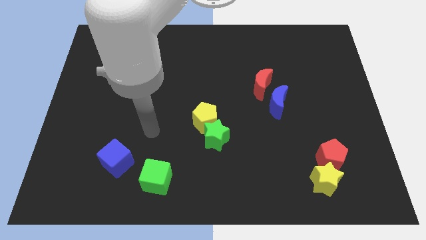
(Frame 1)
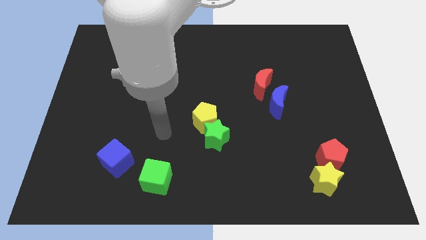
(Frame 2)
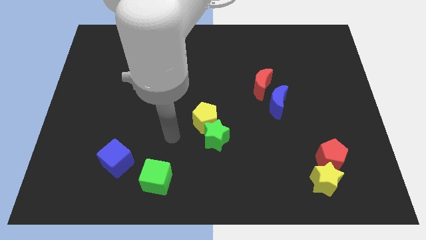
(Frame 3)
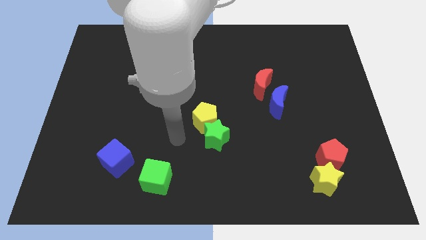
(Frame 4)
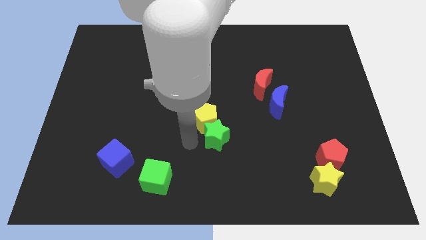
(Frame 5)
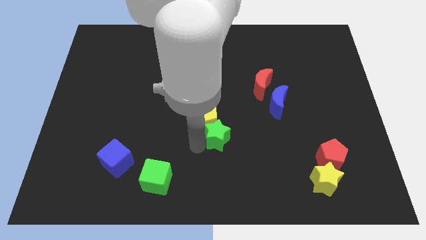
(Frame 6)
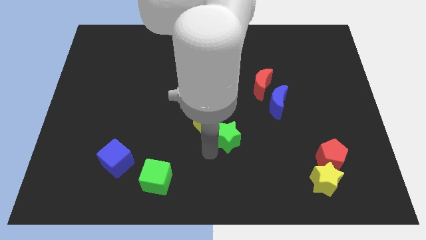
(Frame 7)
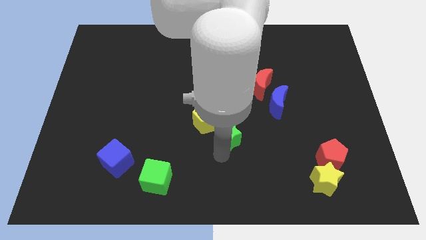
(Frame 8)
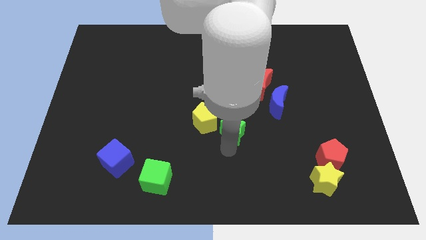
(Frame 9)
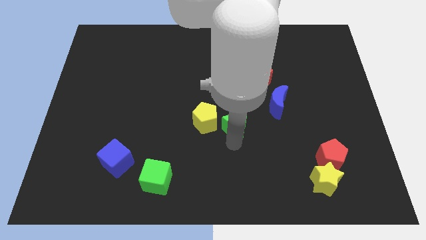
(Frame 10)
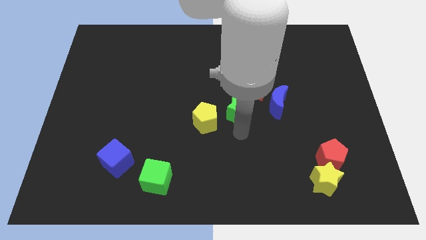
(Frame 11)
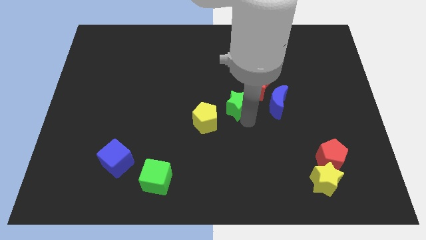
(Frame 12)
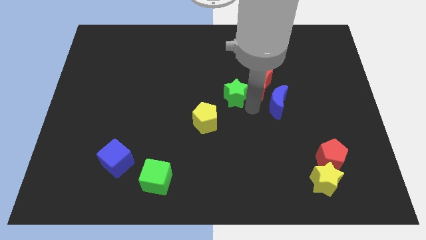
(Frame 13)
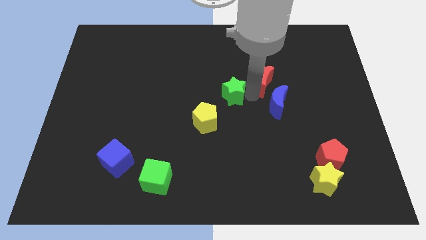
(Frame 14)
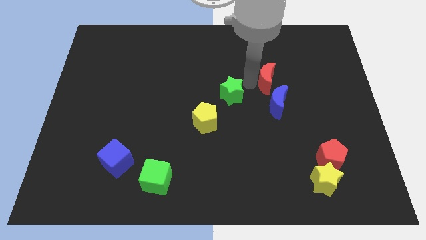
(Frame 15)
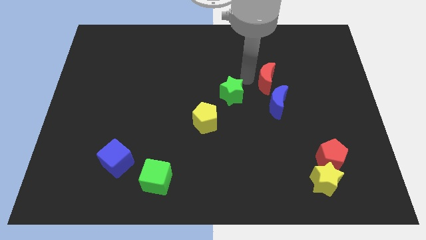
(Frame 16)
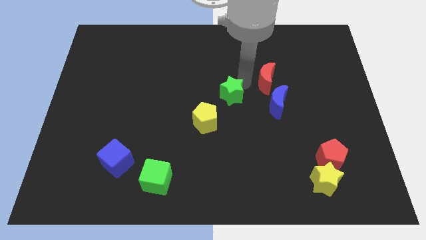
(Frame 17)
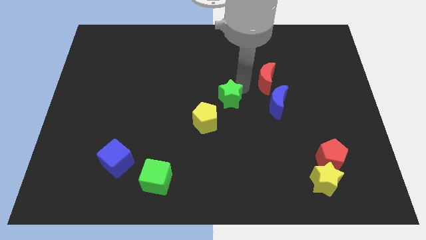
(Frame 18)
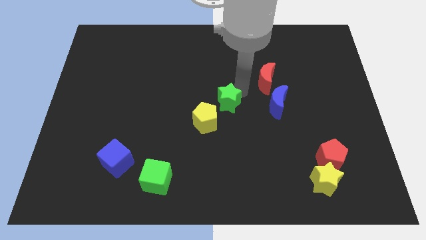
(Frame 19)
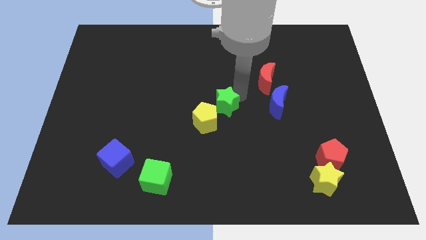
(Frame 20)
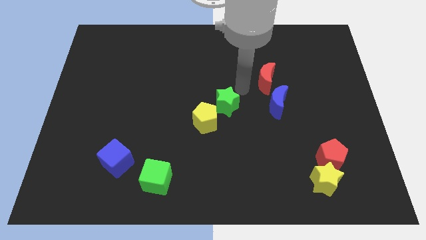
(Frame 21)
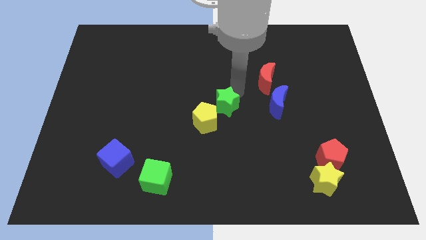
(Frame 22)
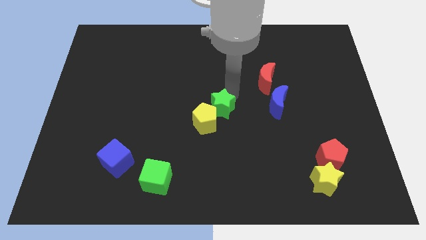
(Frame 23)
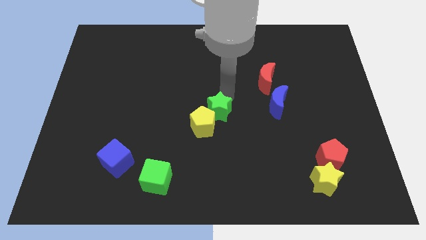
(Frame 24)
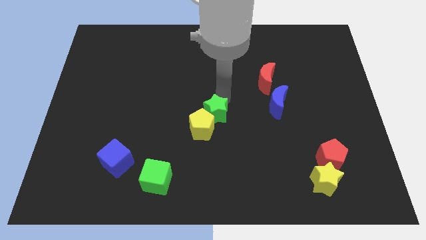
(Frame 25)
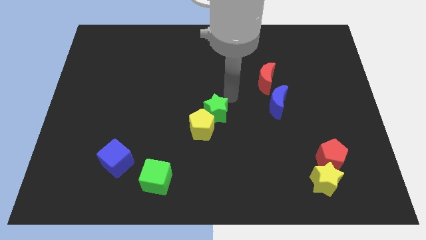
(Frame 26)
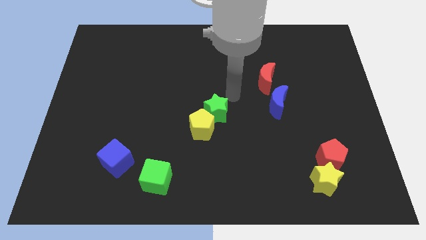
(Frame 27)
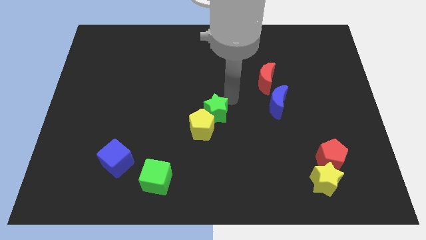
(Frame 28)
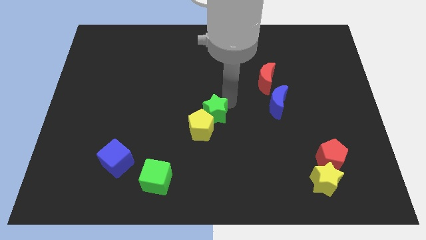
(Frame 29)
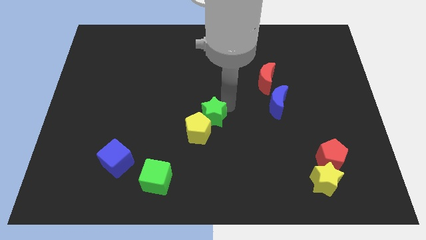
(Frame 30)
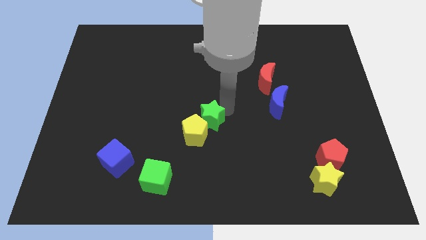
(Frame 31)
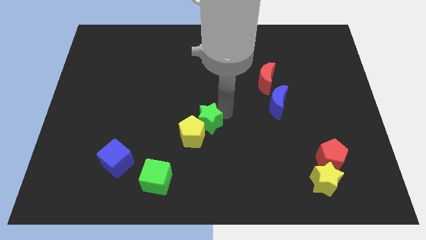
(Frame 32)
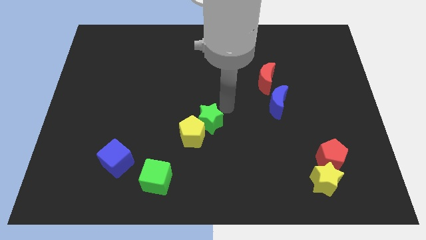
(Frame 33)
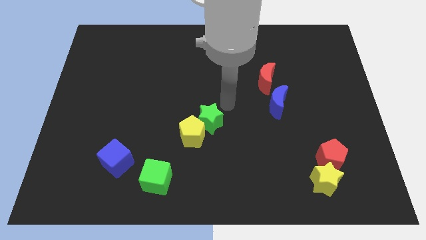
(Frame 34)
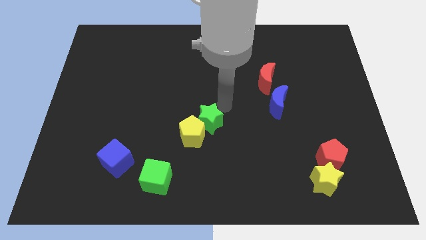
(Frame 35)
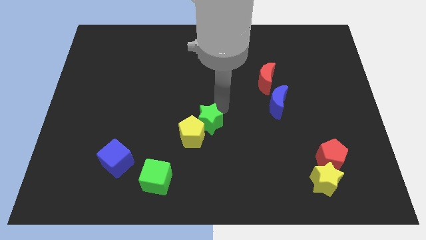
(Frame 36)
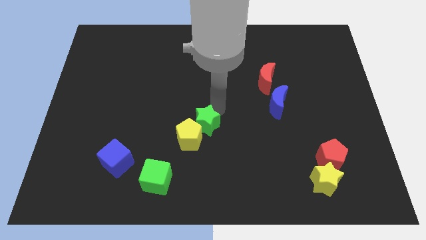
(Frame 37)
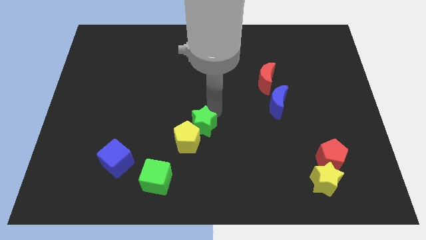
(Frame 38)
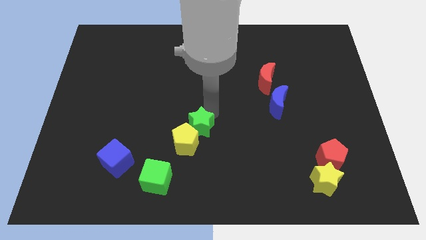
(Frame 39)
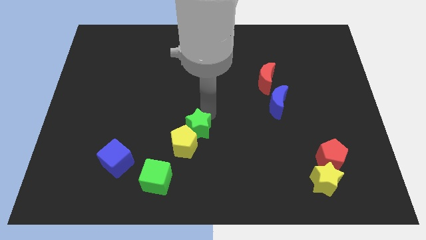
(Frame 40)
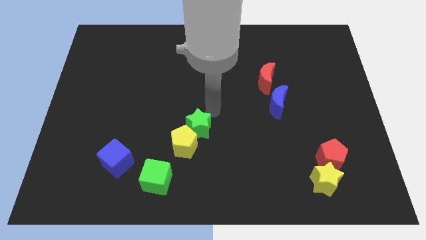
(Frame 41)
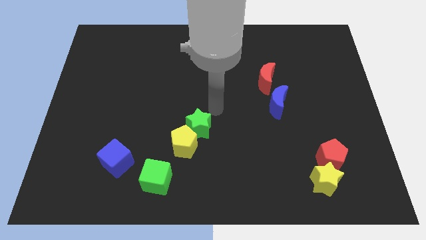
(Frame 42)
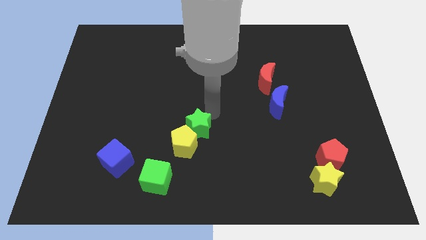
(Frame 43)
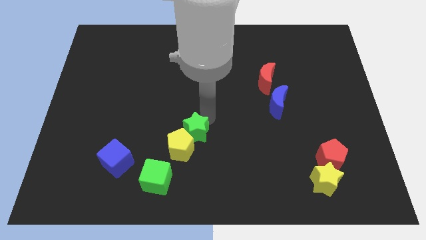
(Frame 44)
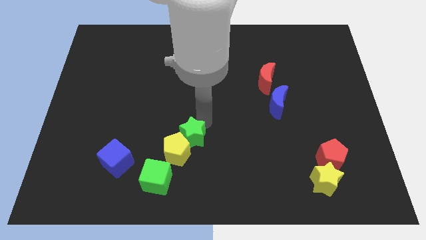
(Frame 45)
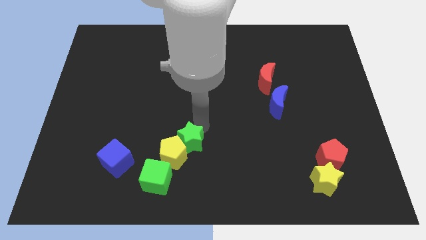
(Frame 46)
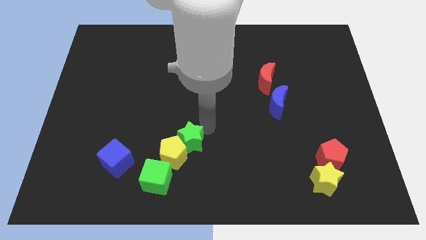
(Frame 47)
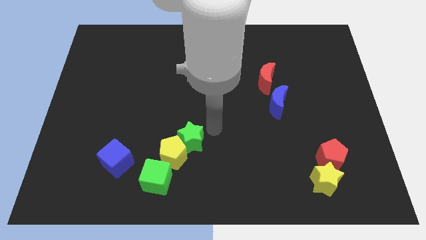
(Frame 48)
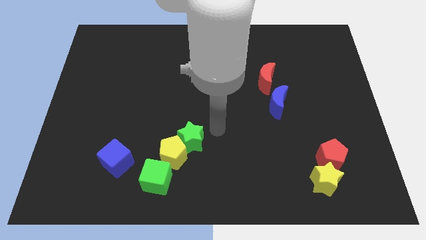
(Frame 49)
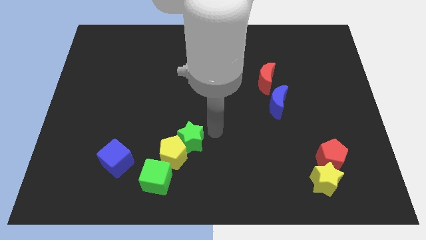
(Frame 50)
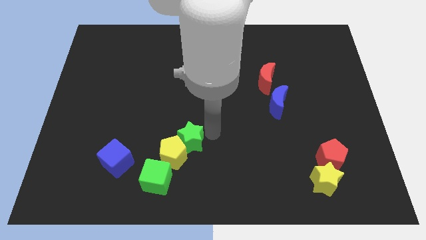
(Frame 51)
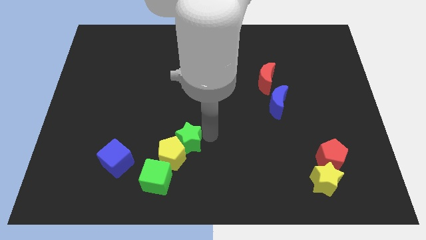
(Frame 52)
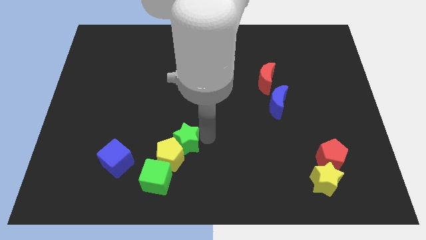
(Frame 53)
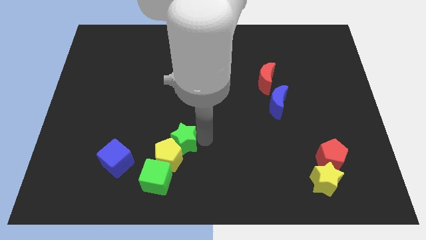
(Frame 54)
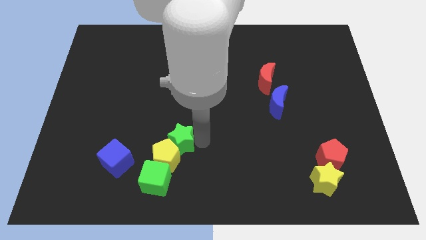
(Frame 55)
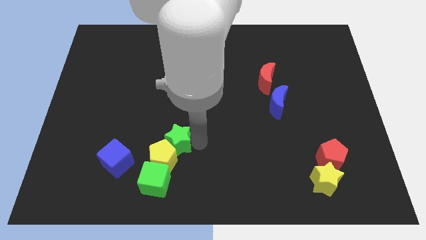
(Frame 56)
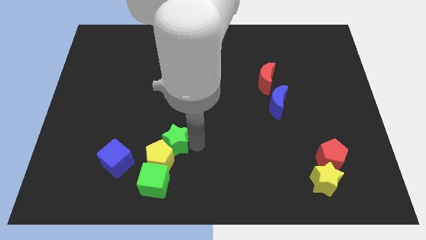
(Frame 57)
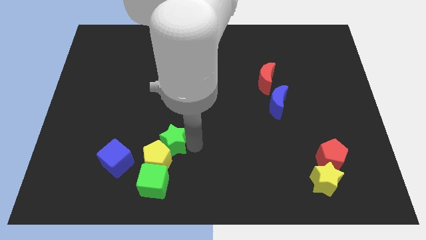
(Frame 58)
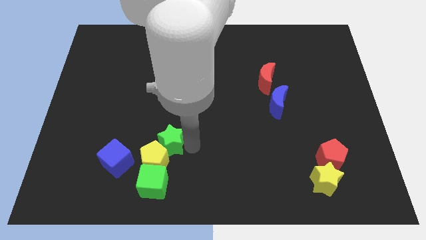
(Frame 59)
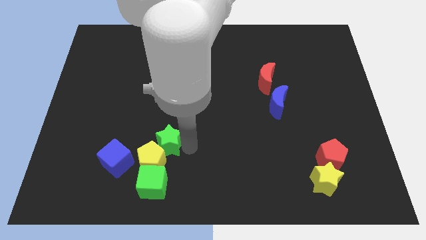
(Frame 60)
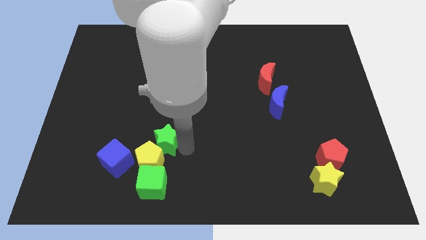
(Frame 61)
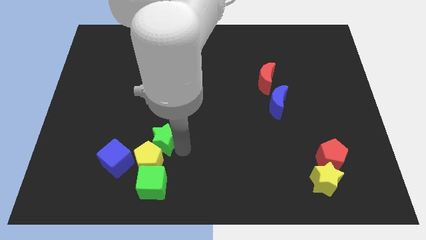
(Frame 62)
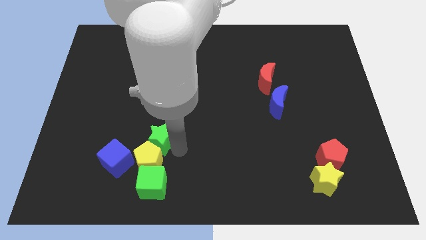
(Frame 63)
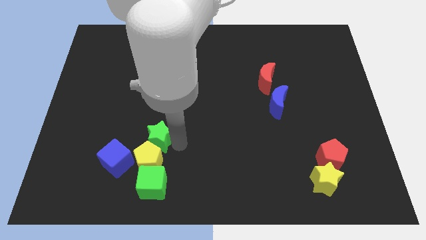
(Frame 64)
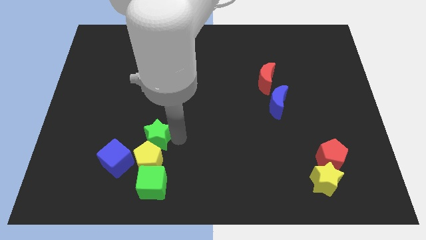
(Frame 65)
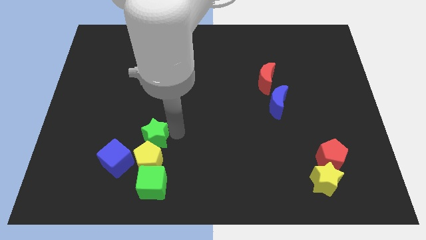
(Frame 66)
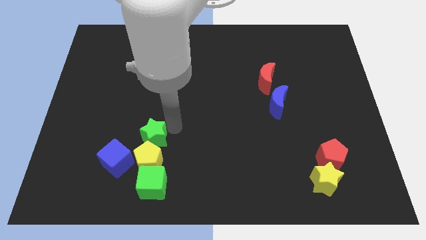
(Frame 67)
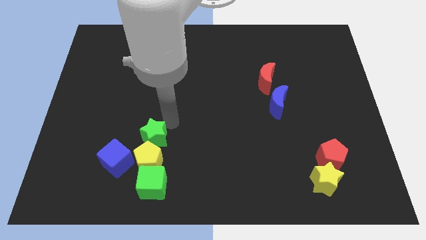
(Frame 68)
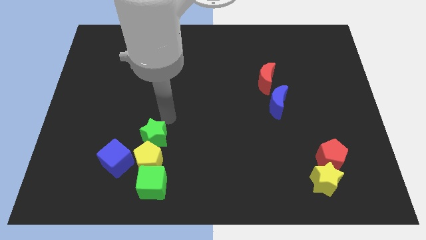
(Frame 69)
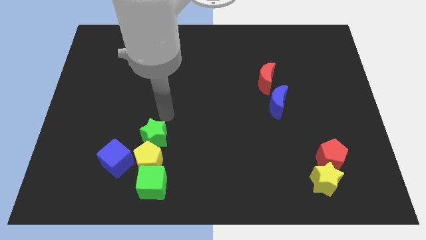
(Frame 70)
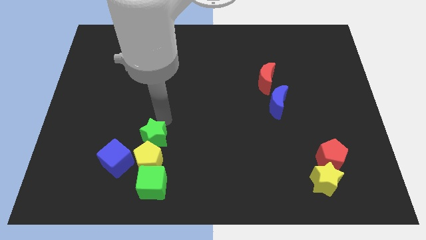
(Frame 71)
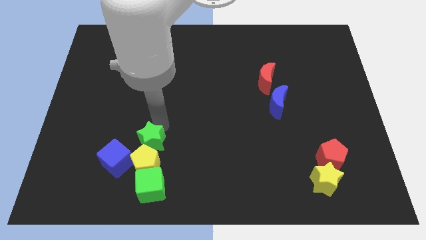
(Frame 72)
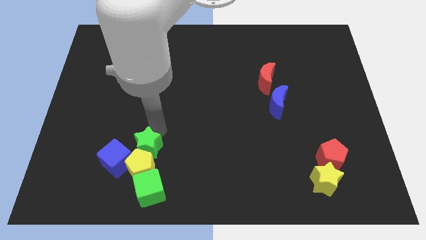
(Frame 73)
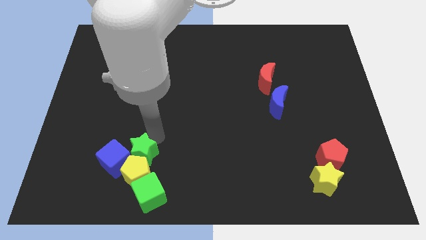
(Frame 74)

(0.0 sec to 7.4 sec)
move the green star close to the blue cube
